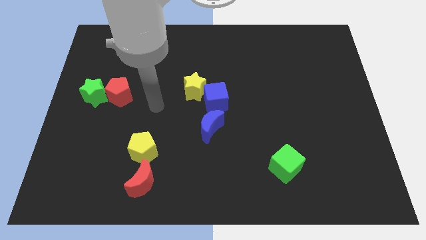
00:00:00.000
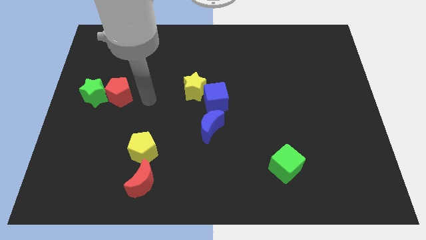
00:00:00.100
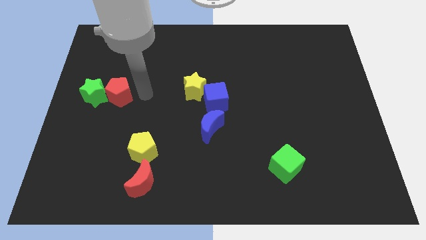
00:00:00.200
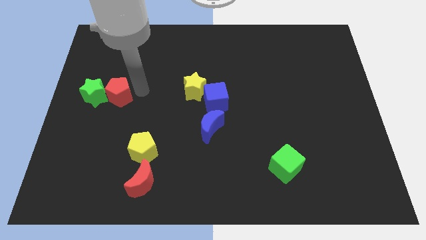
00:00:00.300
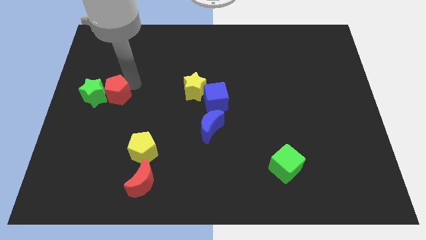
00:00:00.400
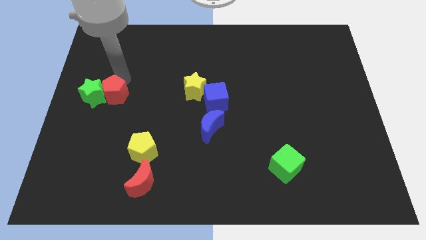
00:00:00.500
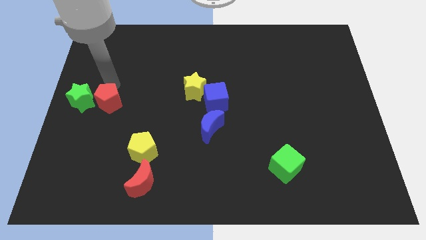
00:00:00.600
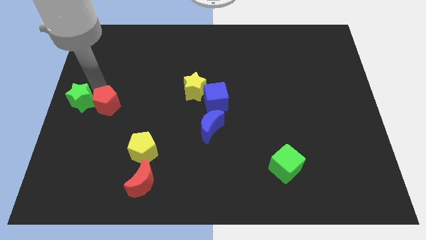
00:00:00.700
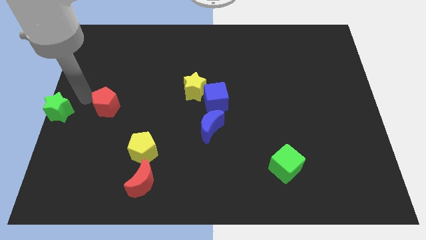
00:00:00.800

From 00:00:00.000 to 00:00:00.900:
separate the red pentagon from the green star

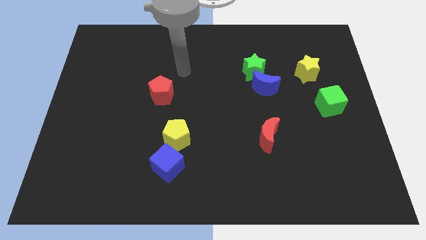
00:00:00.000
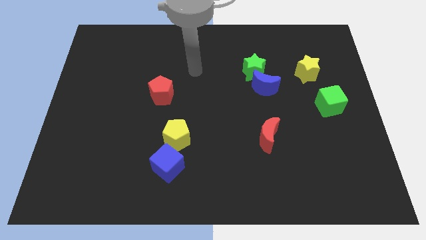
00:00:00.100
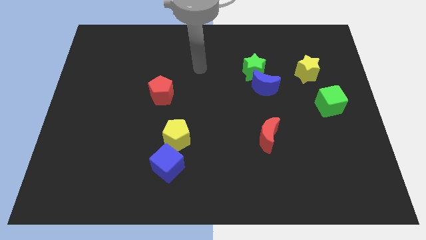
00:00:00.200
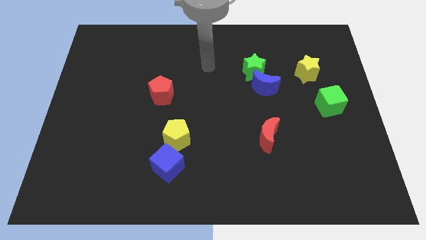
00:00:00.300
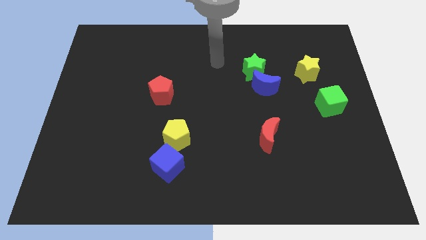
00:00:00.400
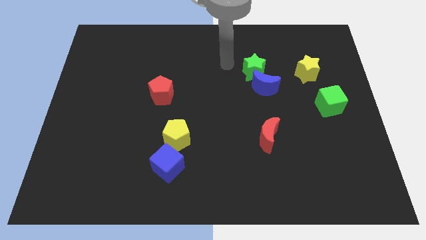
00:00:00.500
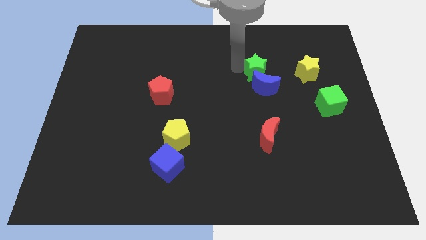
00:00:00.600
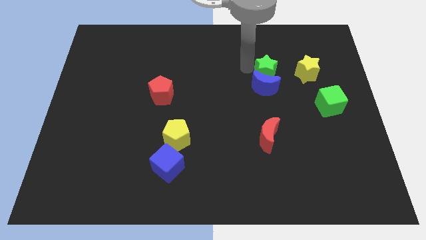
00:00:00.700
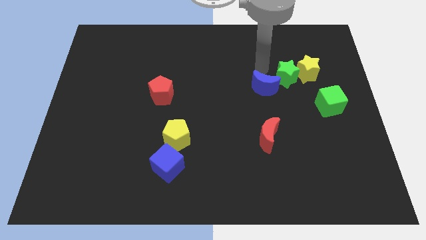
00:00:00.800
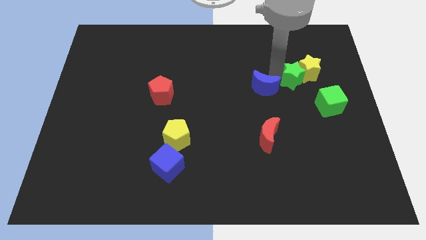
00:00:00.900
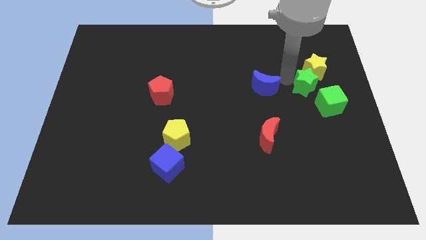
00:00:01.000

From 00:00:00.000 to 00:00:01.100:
move the blue moon away from the green star

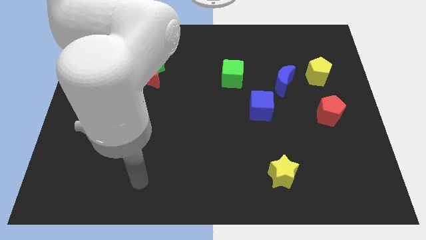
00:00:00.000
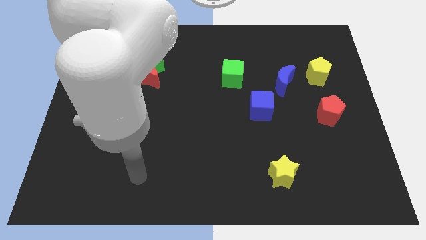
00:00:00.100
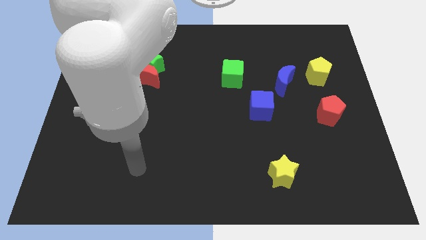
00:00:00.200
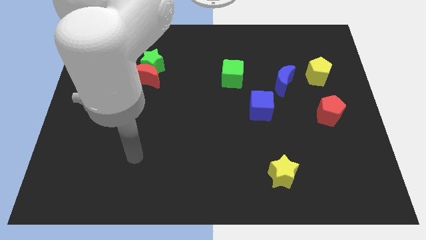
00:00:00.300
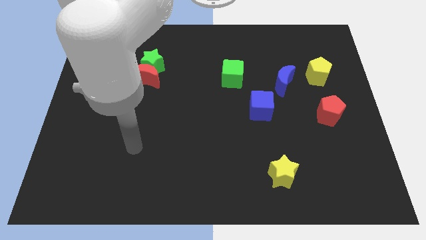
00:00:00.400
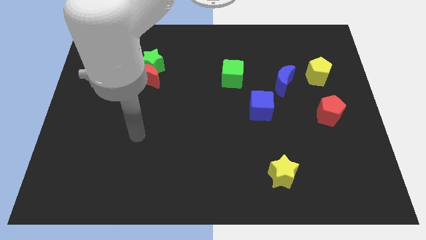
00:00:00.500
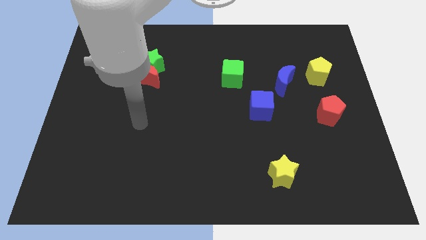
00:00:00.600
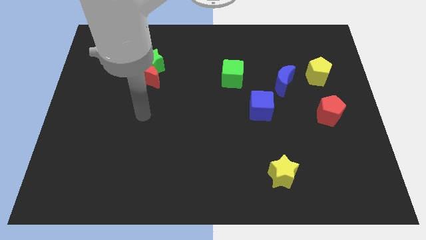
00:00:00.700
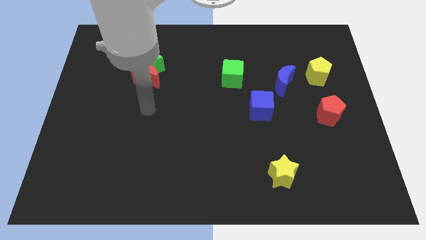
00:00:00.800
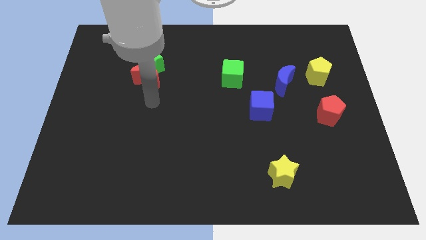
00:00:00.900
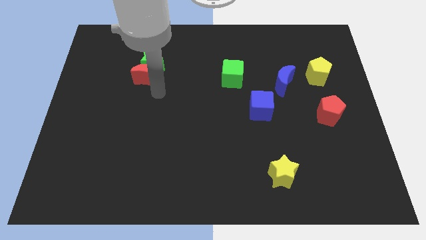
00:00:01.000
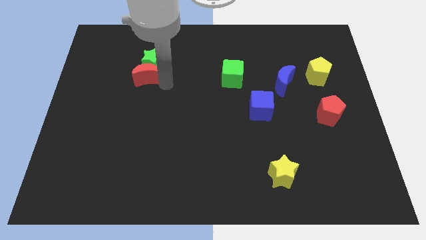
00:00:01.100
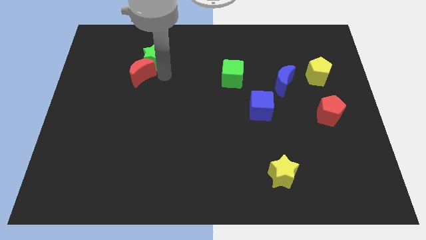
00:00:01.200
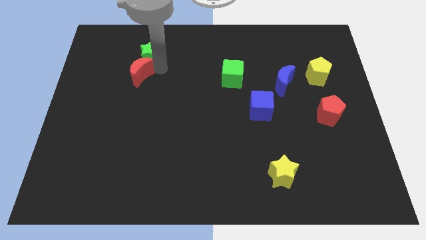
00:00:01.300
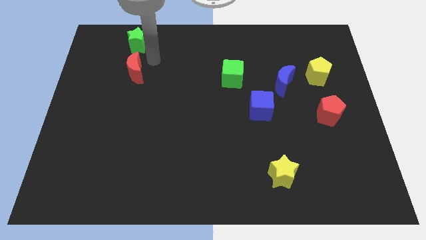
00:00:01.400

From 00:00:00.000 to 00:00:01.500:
separate the red moon from the green star

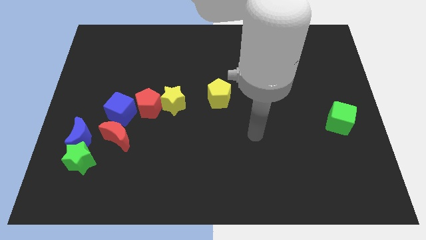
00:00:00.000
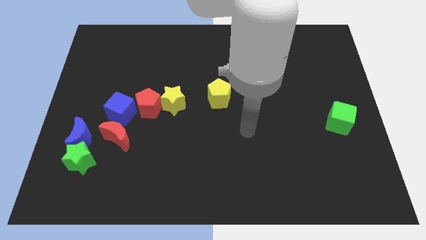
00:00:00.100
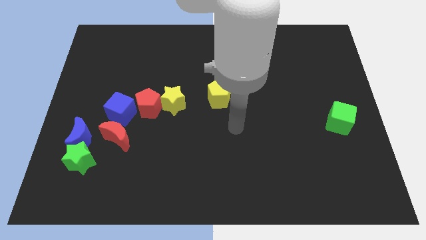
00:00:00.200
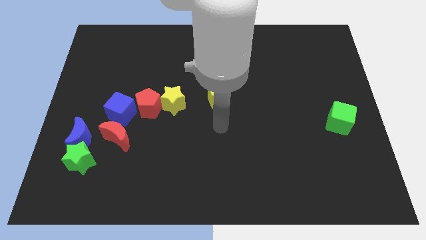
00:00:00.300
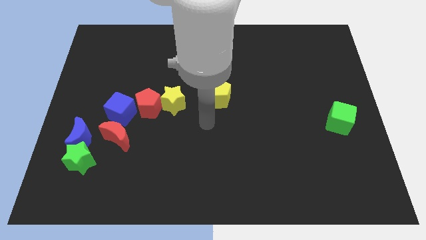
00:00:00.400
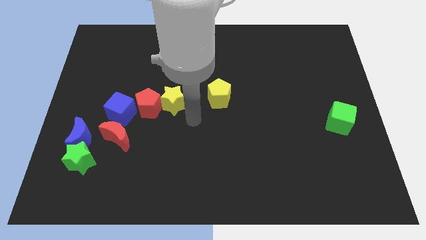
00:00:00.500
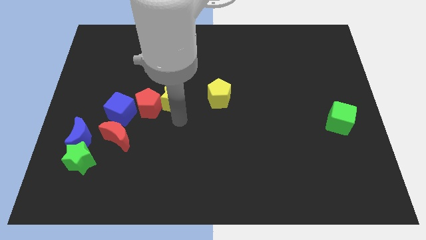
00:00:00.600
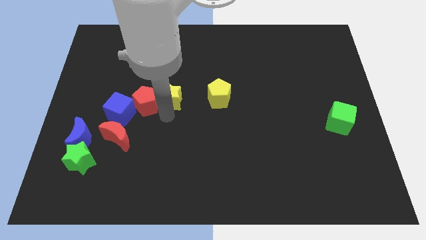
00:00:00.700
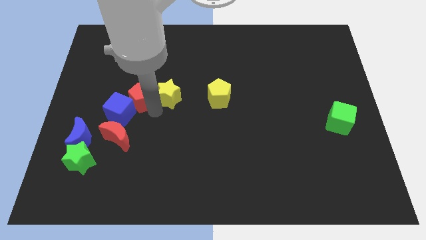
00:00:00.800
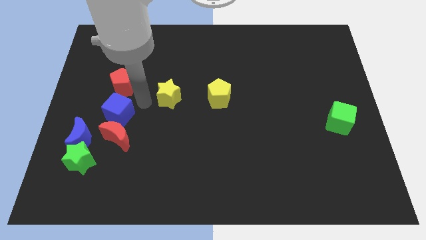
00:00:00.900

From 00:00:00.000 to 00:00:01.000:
separate the yellow star from the red pentagon

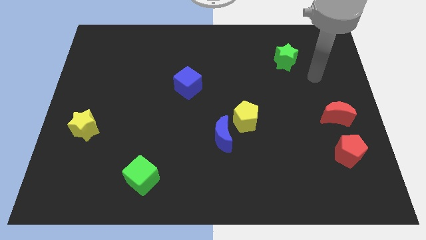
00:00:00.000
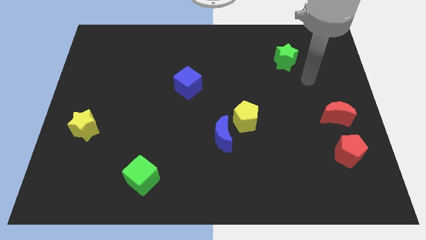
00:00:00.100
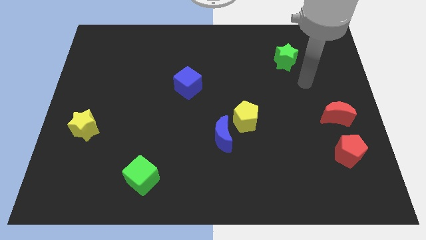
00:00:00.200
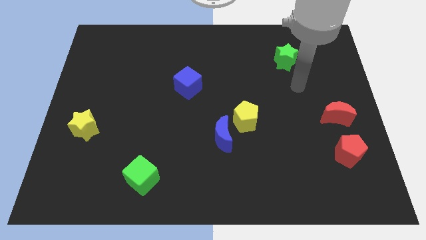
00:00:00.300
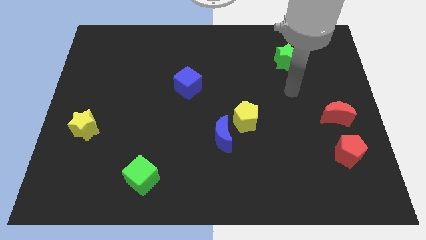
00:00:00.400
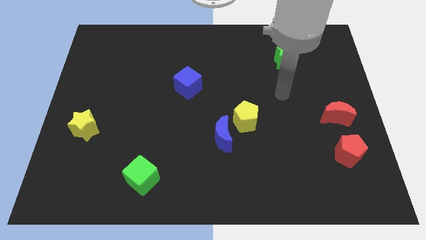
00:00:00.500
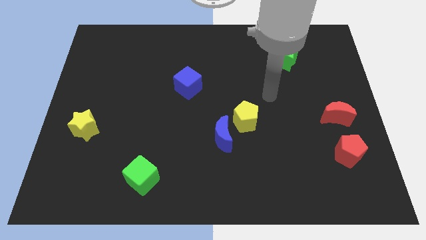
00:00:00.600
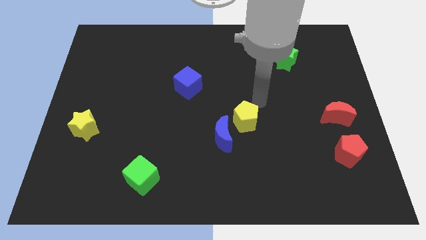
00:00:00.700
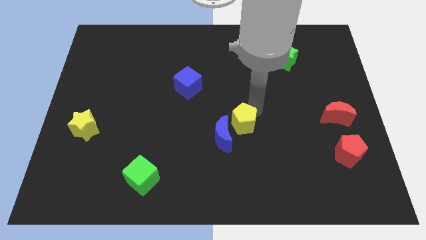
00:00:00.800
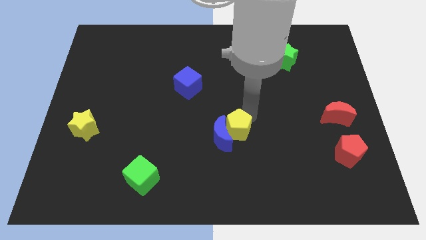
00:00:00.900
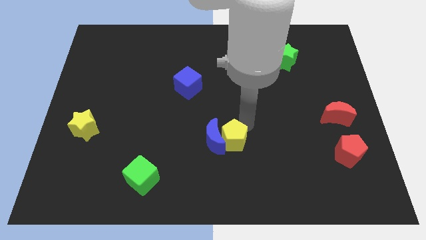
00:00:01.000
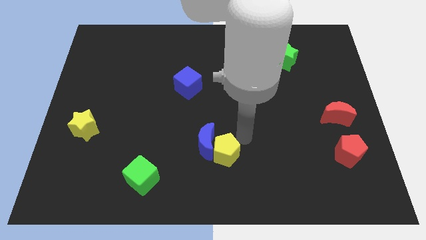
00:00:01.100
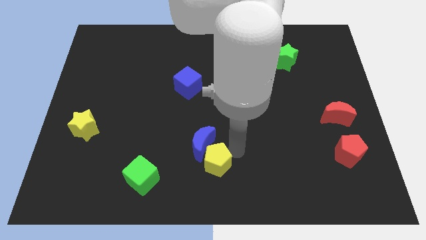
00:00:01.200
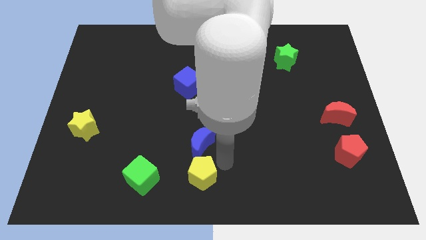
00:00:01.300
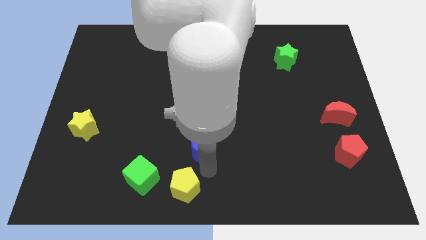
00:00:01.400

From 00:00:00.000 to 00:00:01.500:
separate the blue moon from the yellow pentagon

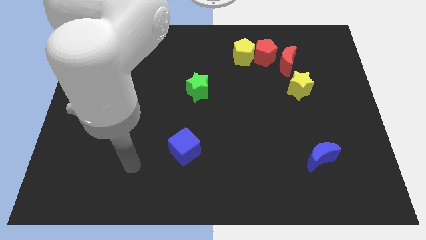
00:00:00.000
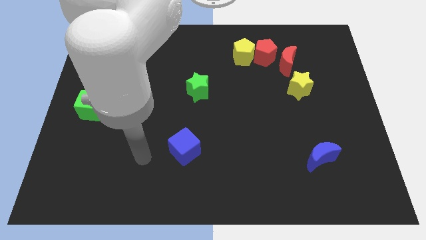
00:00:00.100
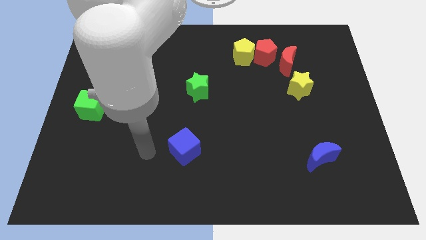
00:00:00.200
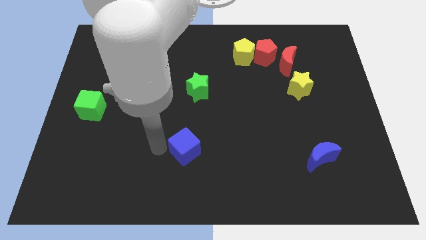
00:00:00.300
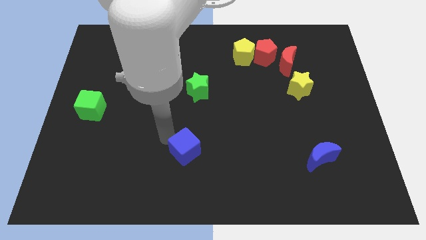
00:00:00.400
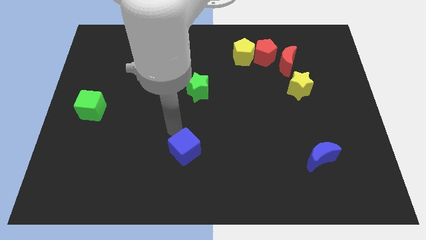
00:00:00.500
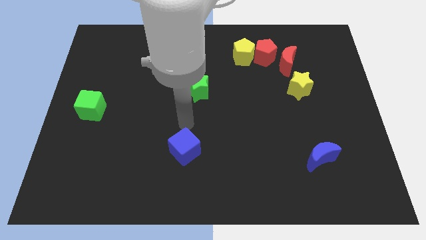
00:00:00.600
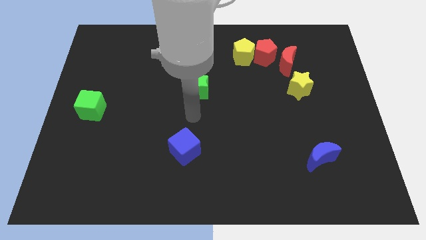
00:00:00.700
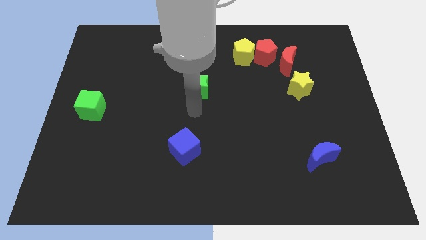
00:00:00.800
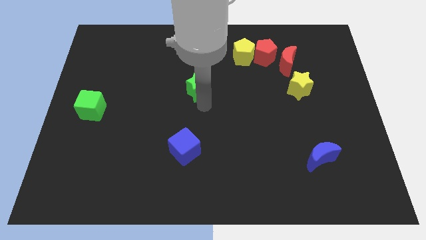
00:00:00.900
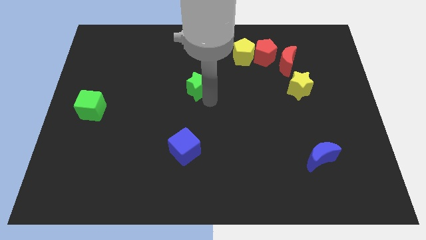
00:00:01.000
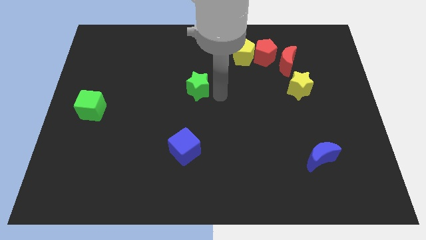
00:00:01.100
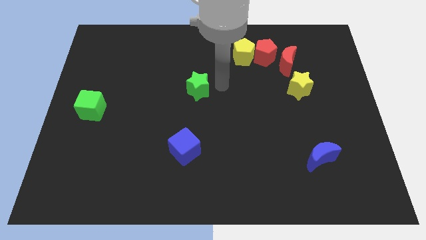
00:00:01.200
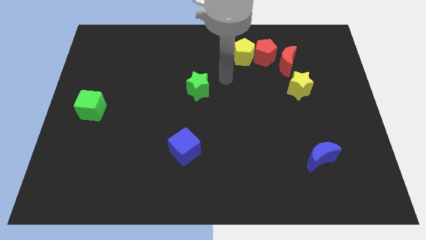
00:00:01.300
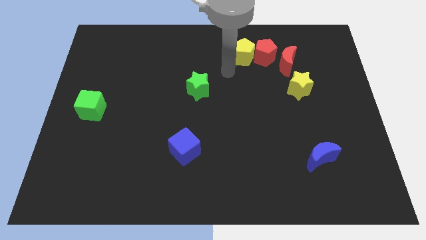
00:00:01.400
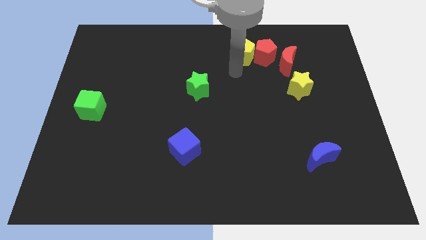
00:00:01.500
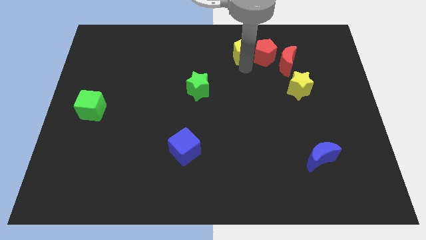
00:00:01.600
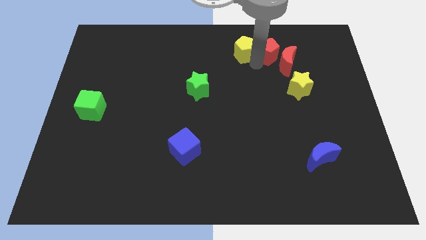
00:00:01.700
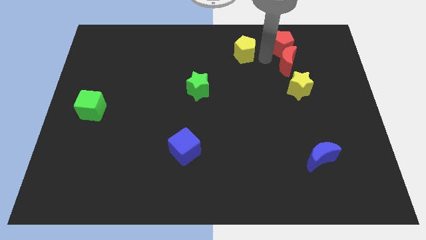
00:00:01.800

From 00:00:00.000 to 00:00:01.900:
move the yellow pentagon away from the red pentagon

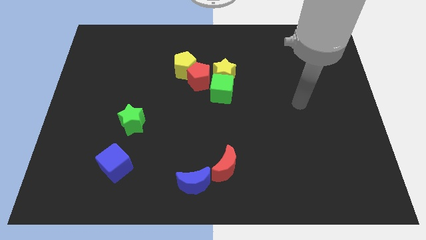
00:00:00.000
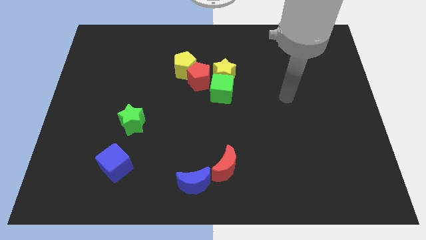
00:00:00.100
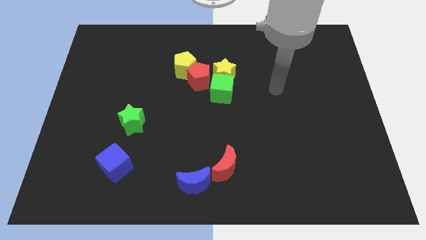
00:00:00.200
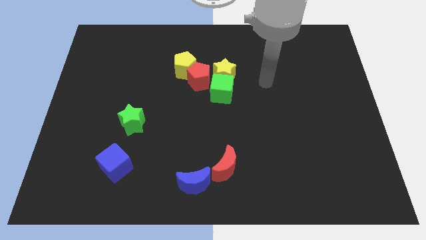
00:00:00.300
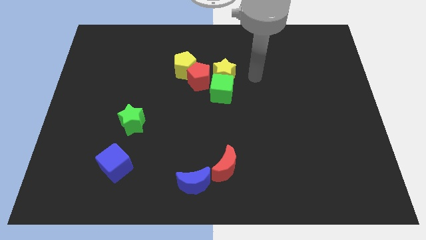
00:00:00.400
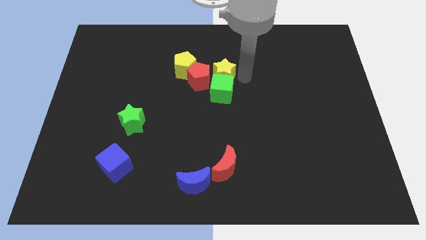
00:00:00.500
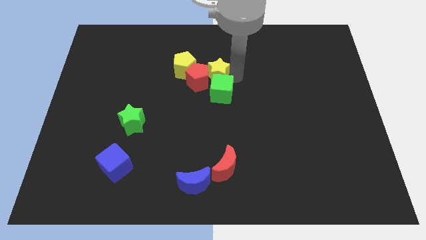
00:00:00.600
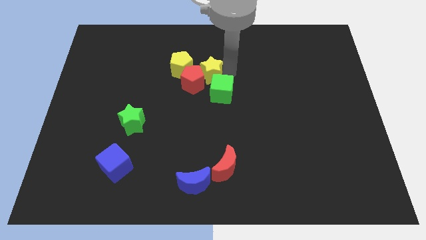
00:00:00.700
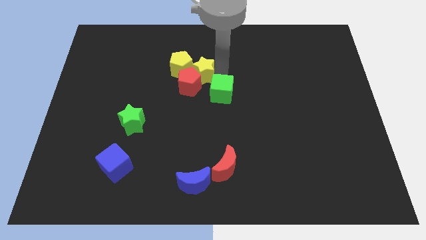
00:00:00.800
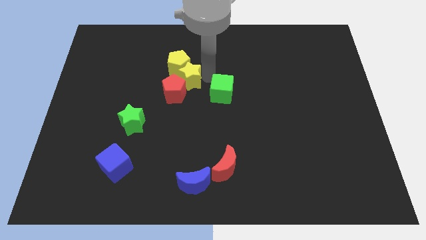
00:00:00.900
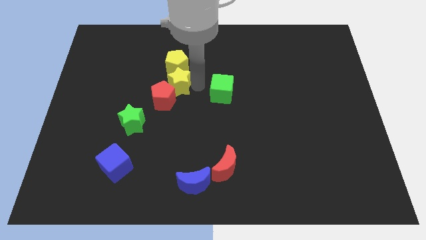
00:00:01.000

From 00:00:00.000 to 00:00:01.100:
pull the green cube apart from the yellow star and red pentagon

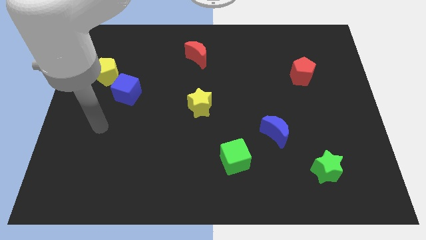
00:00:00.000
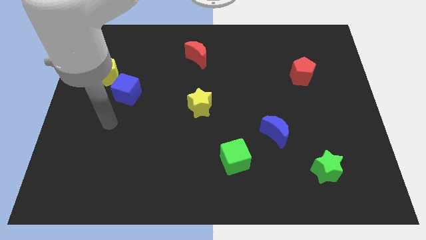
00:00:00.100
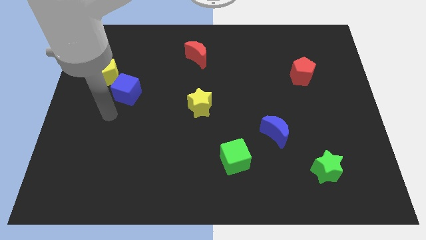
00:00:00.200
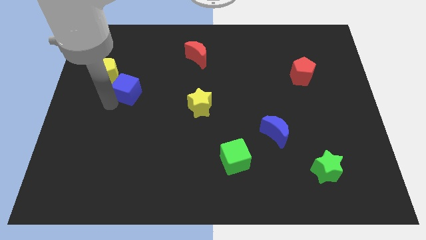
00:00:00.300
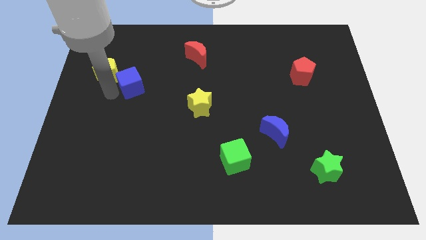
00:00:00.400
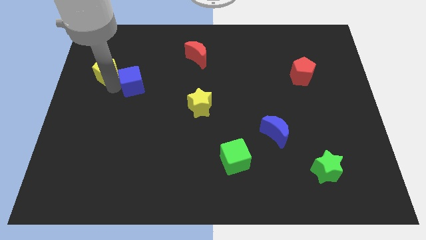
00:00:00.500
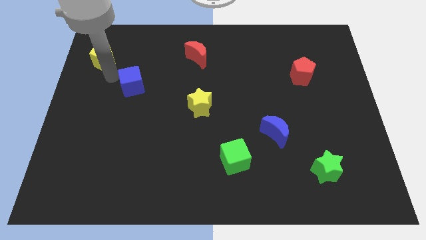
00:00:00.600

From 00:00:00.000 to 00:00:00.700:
move the blue cube away from the yellow pentagon
